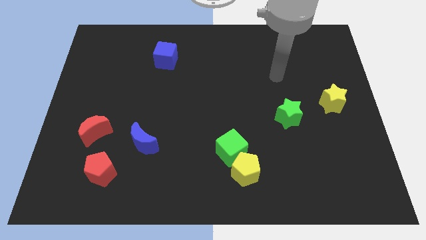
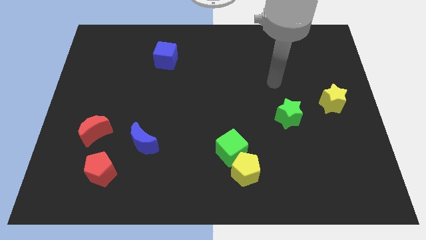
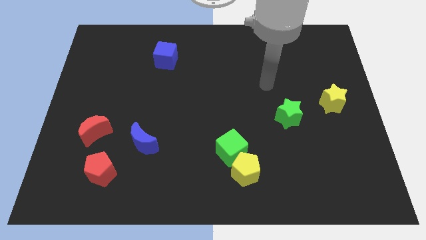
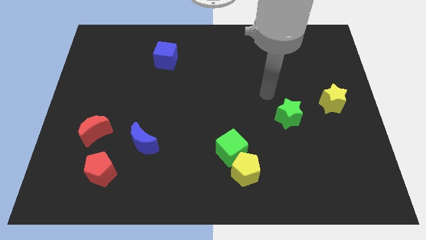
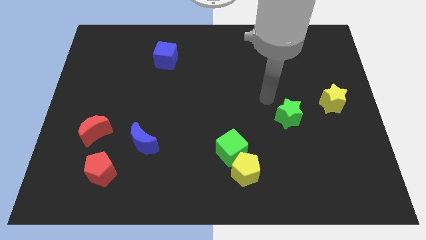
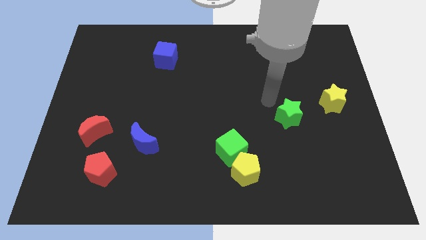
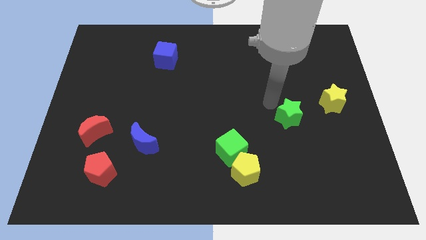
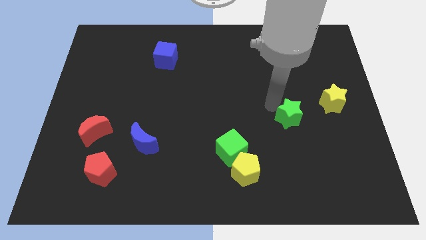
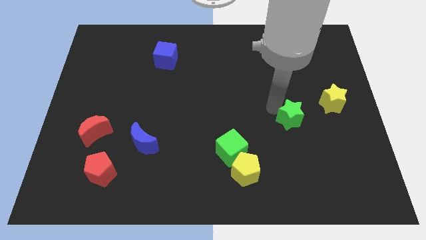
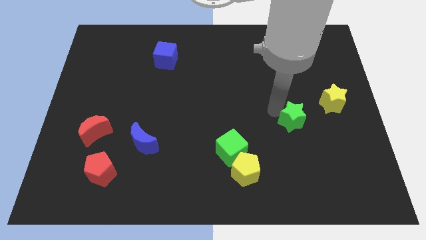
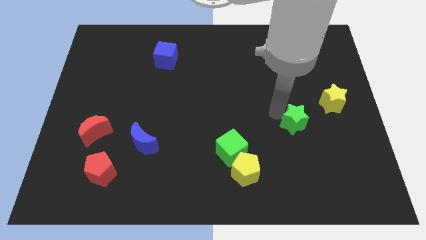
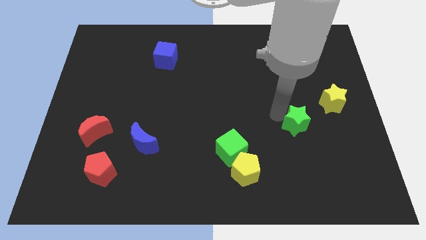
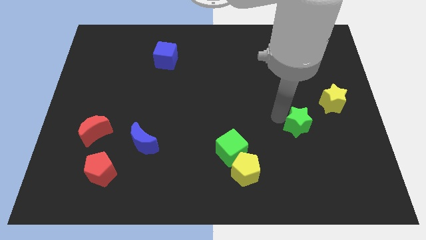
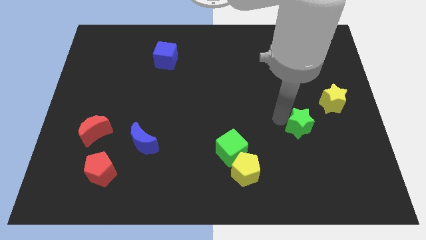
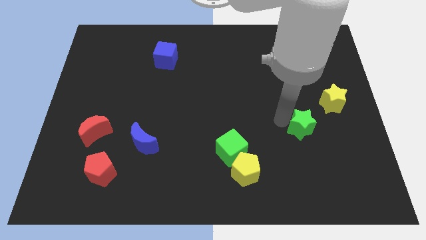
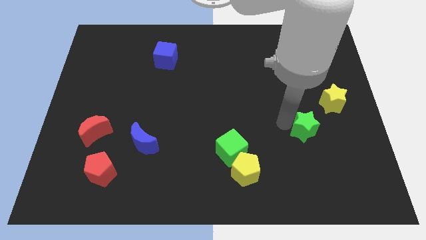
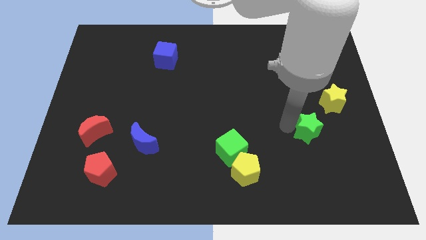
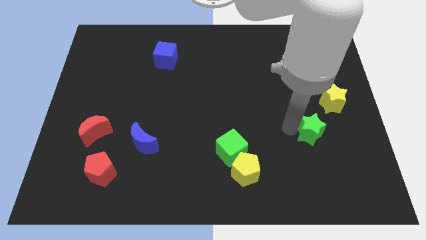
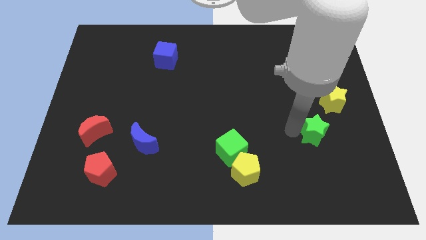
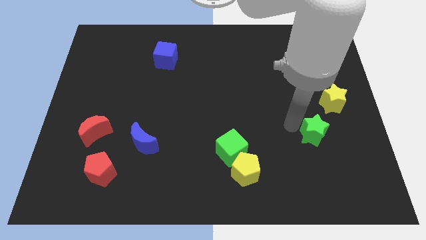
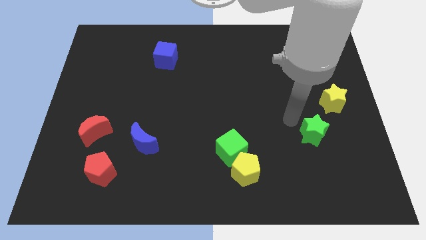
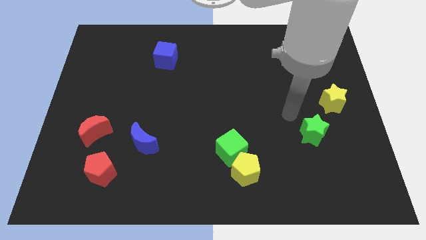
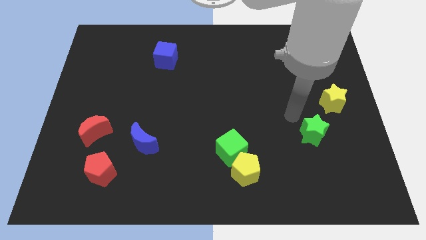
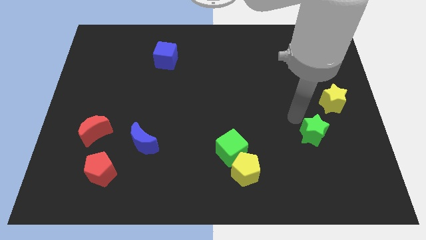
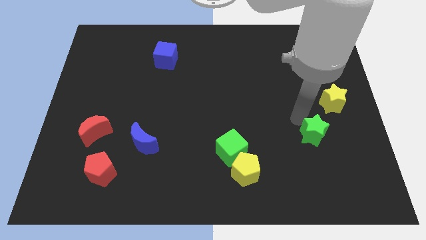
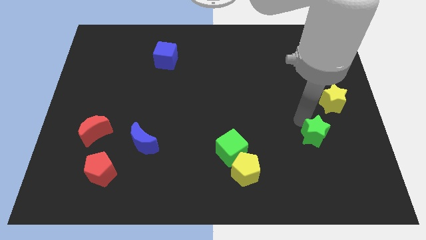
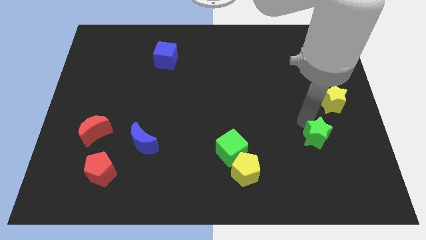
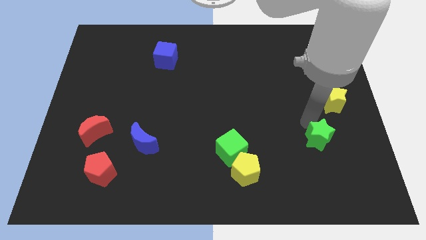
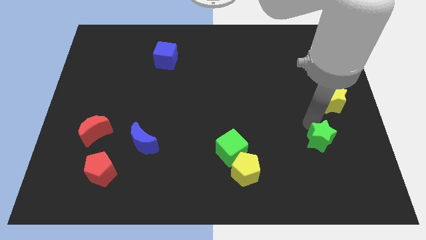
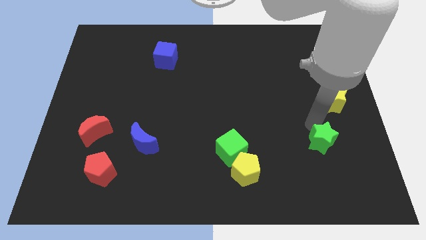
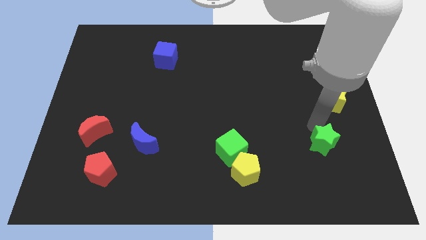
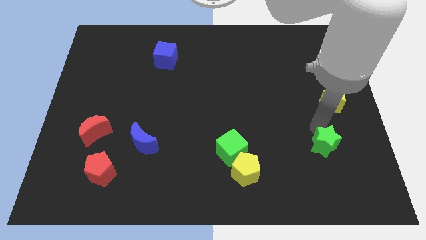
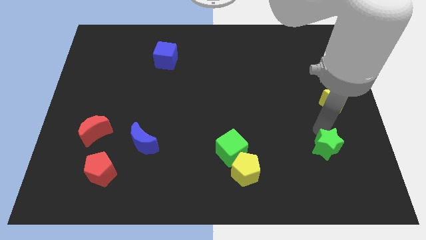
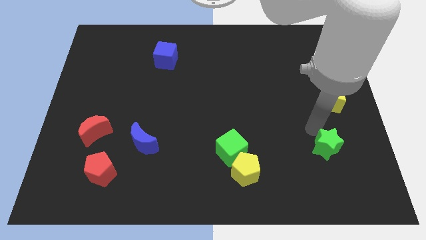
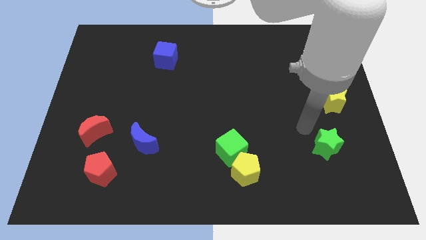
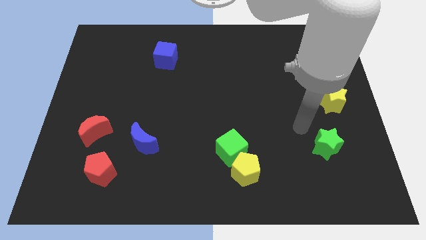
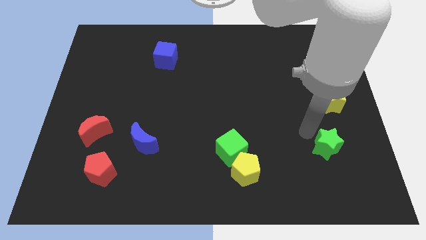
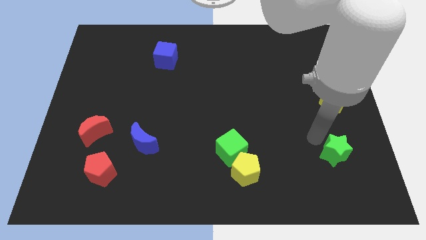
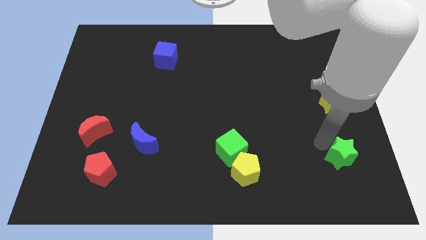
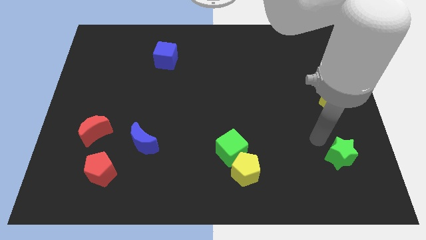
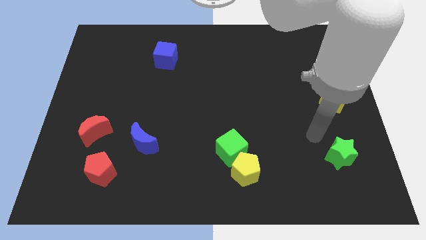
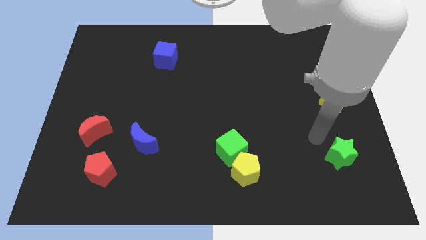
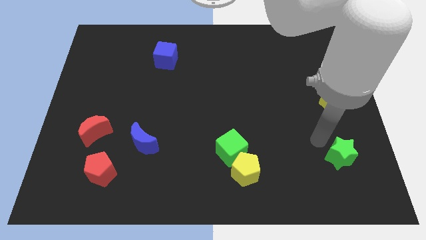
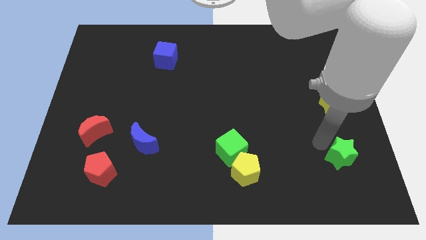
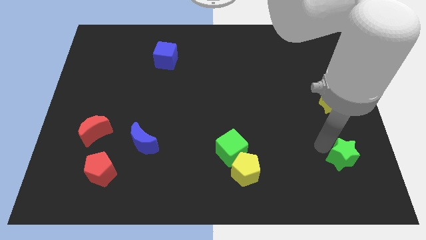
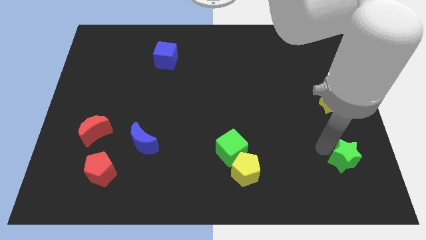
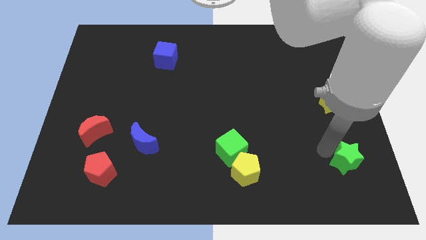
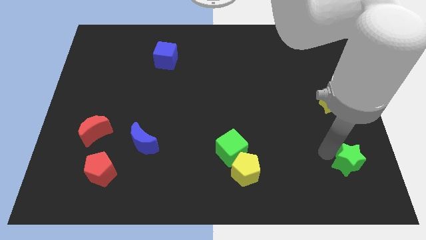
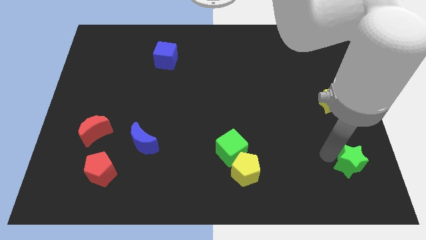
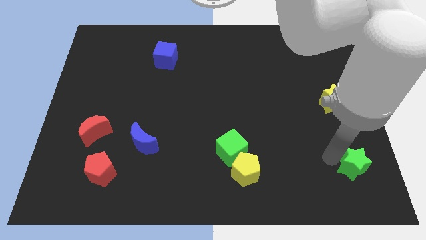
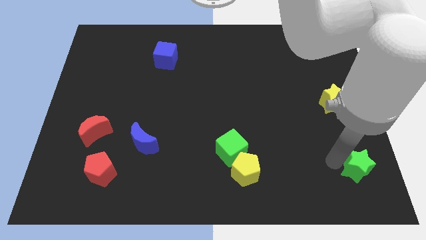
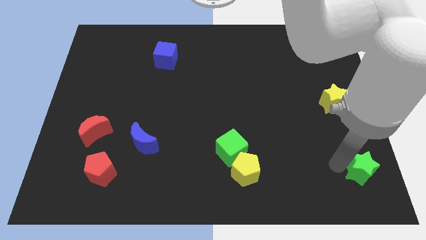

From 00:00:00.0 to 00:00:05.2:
put the green star to the bottom right

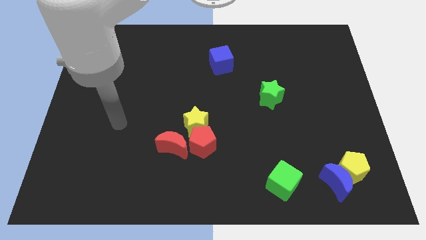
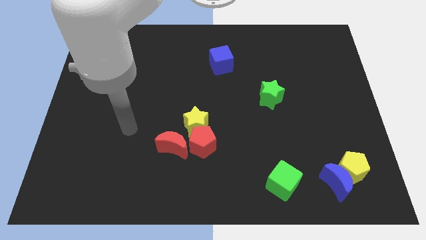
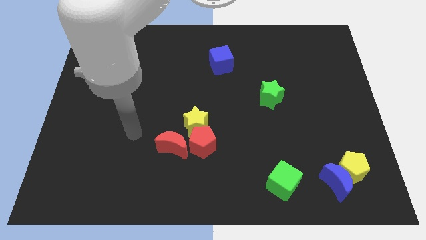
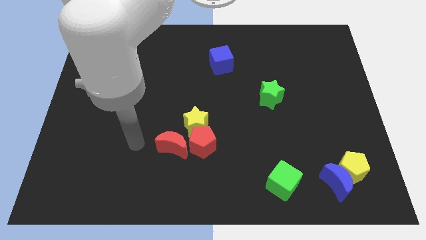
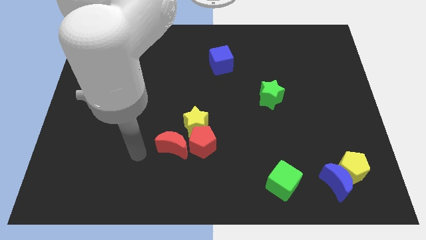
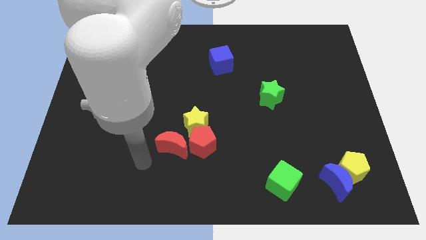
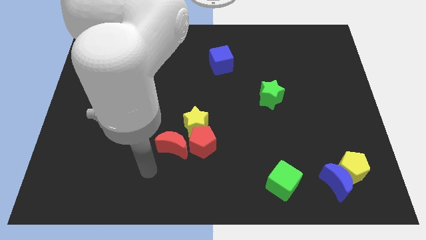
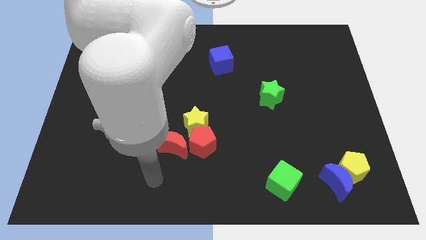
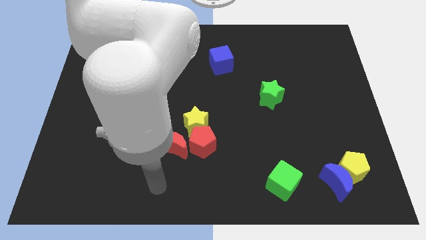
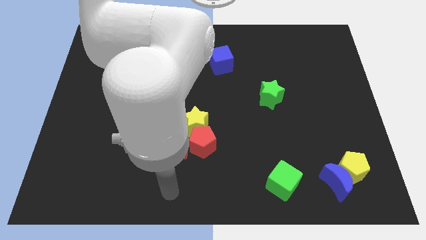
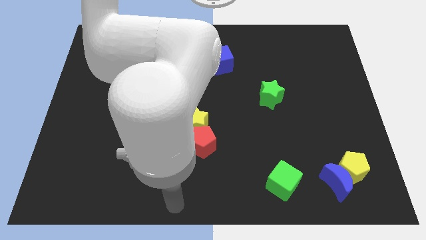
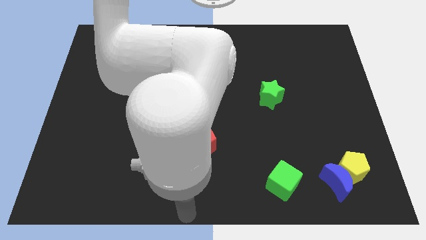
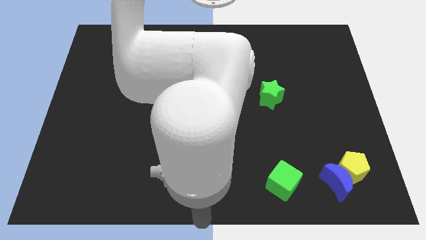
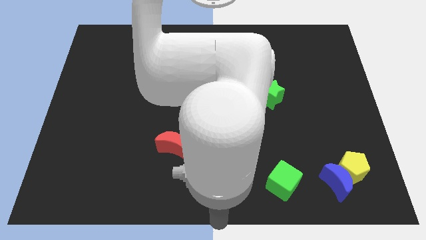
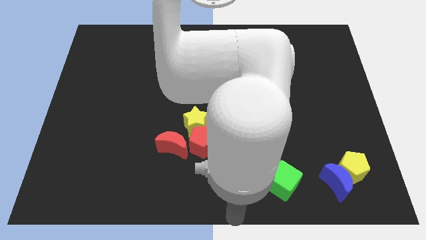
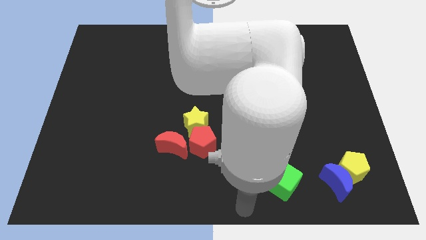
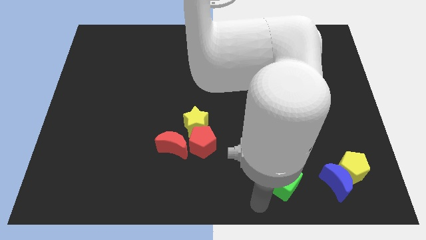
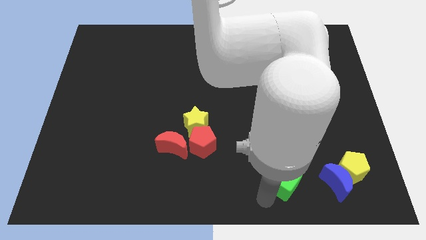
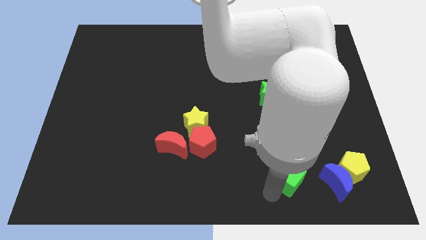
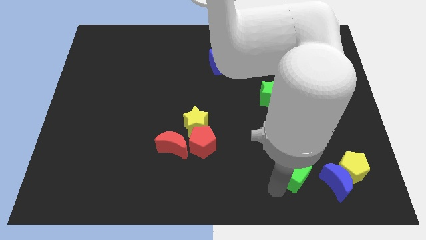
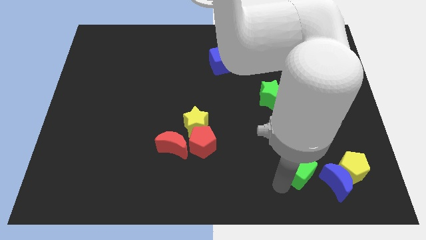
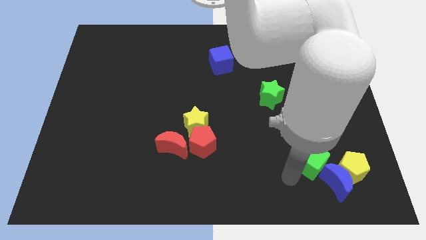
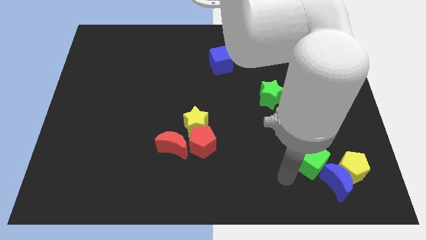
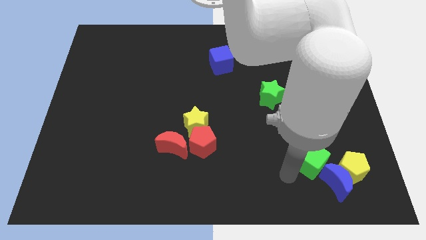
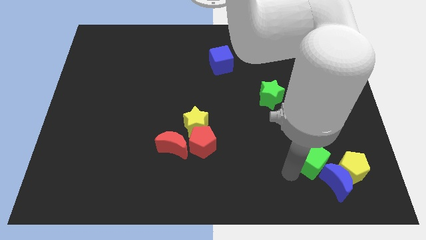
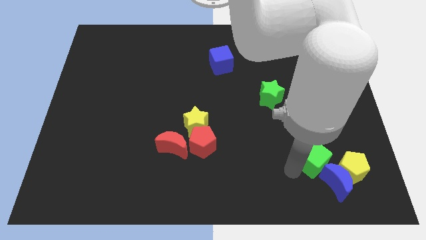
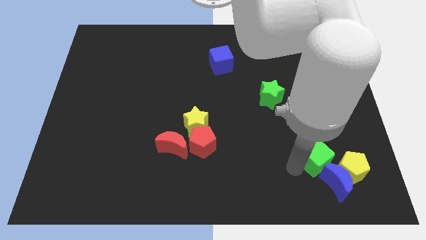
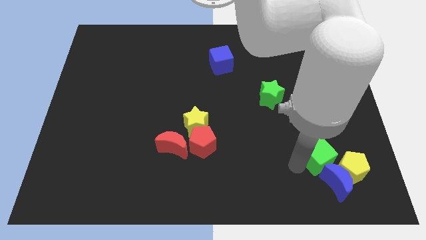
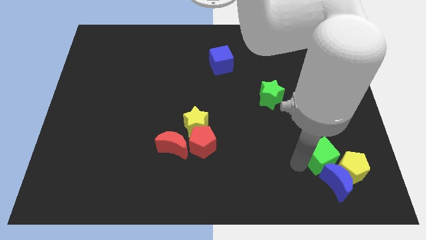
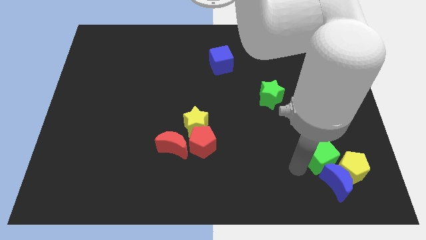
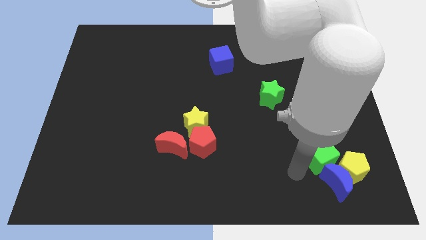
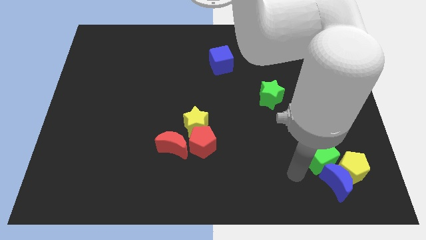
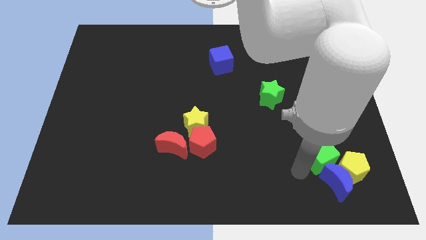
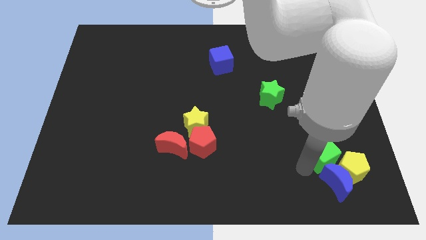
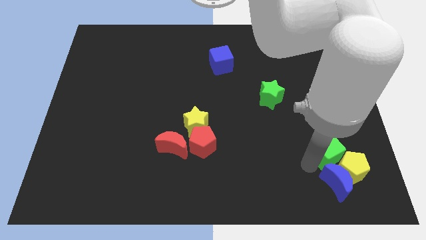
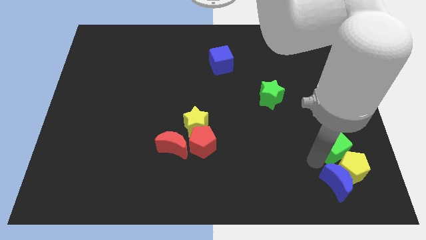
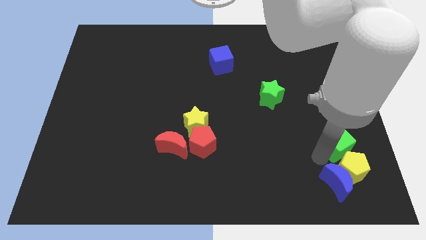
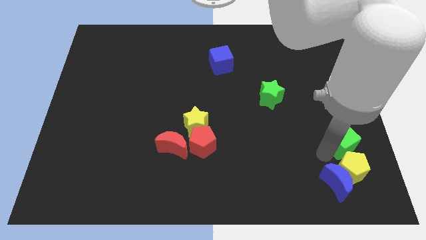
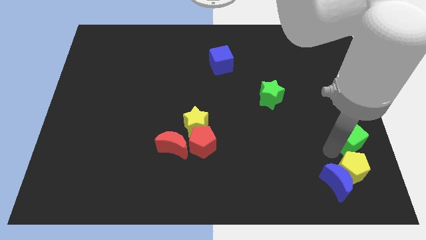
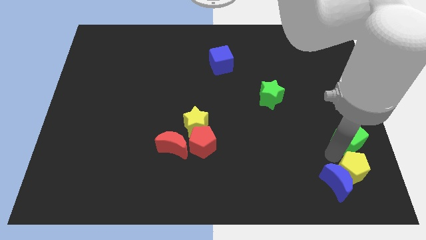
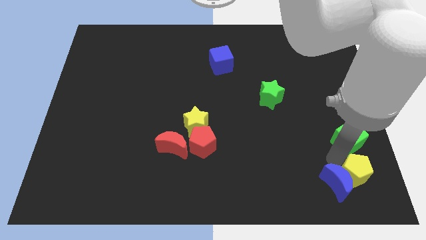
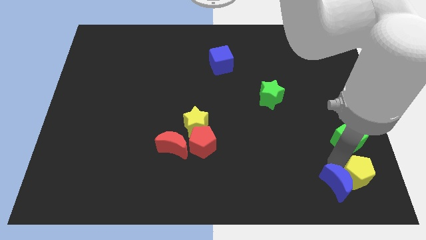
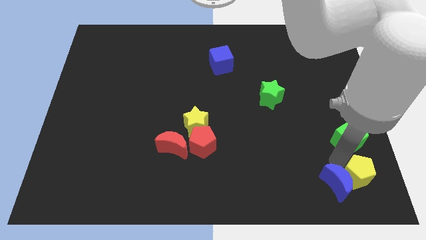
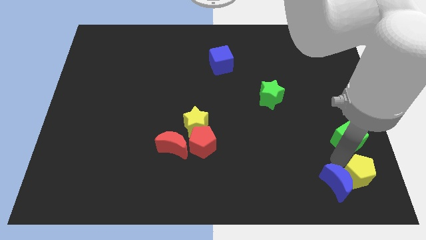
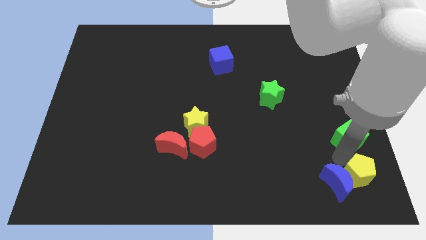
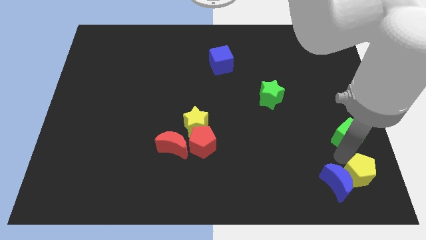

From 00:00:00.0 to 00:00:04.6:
put the green cube to the right side
